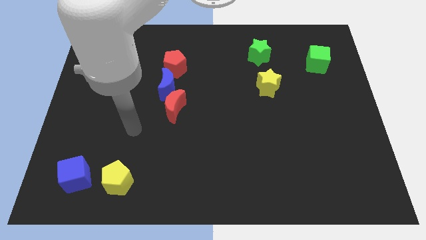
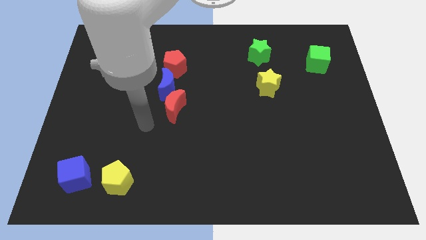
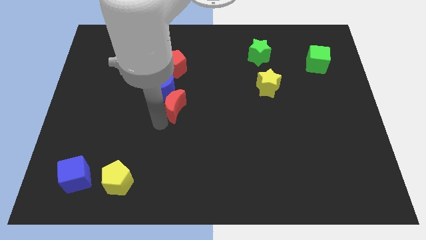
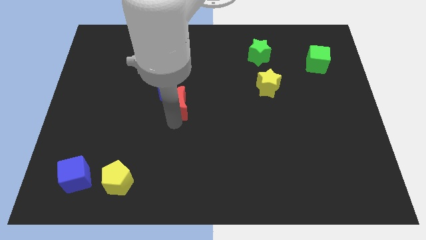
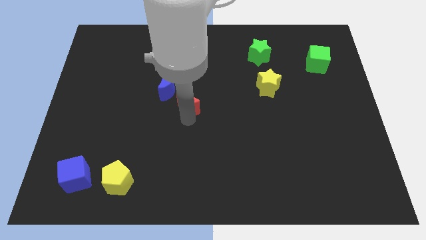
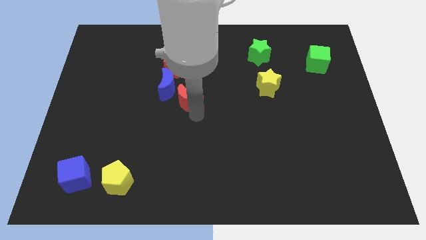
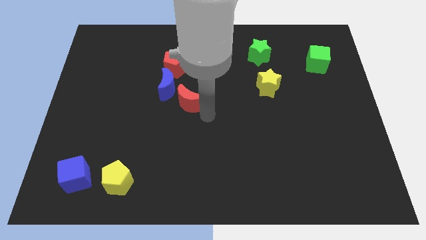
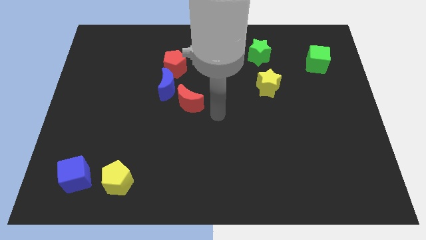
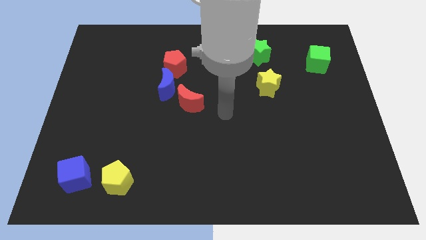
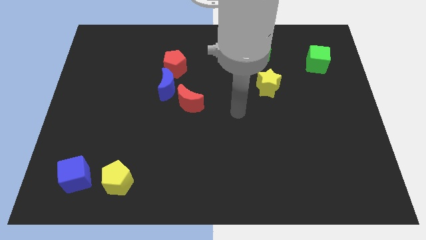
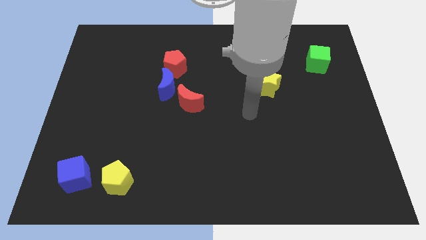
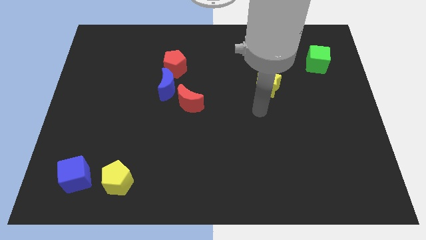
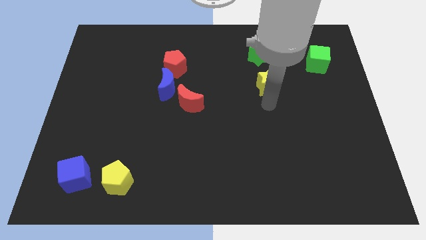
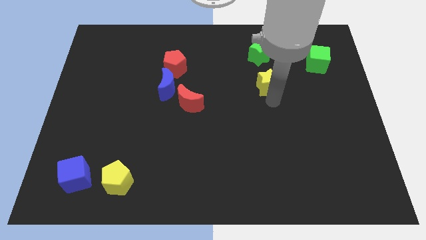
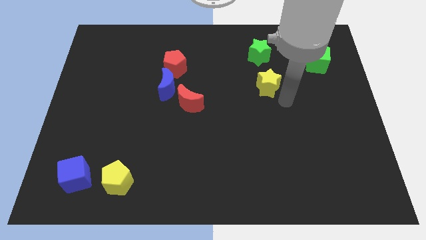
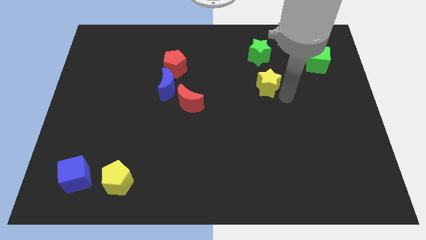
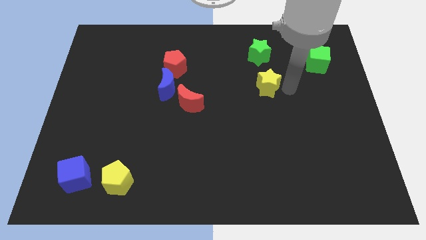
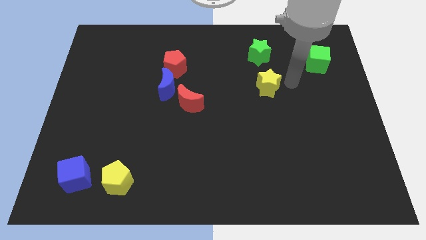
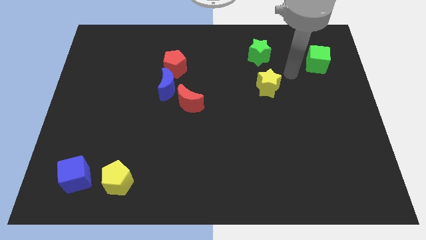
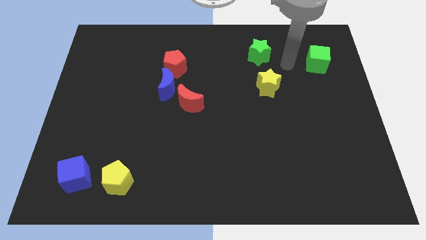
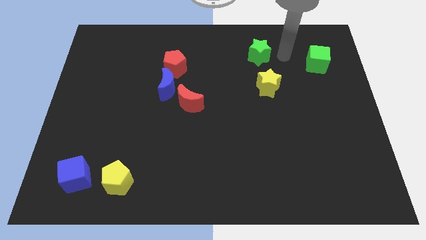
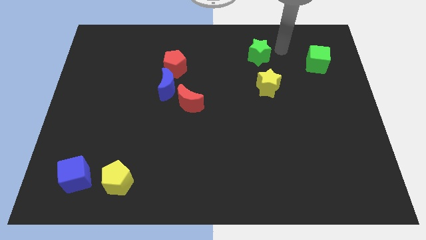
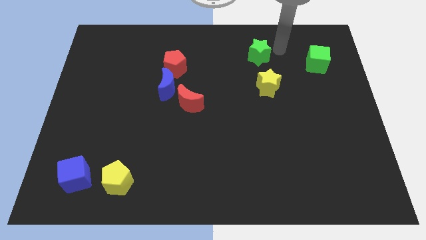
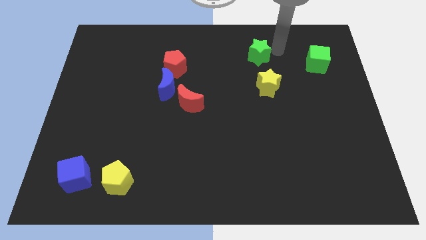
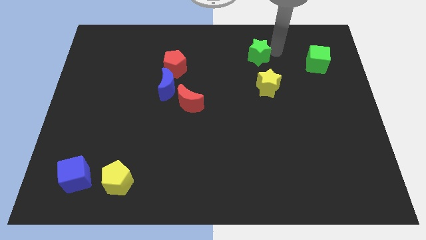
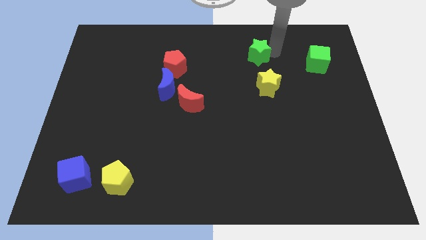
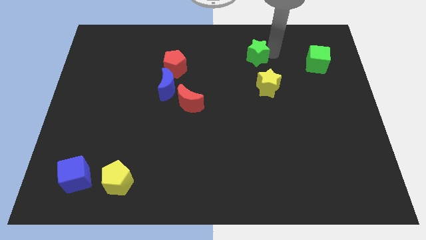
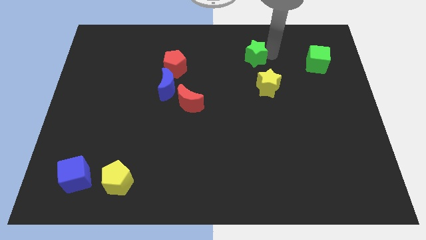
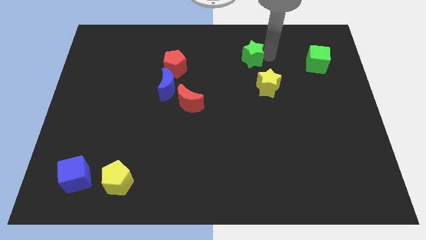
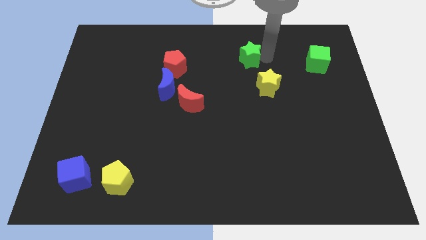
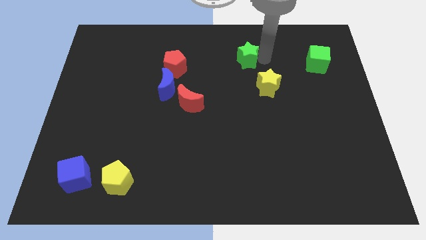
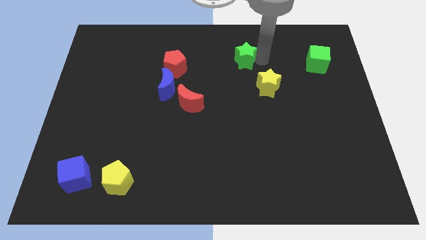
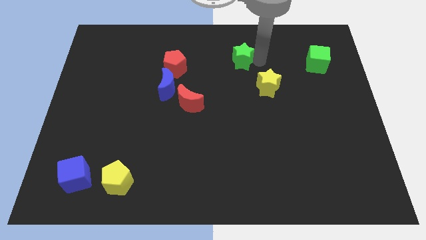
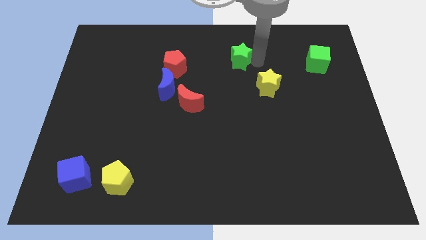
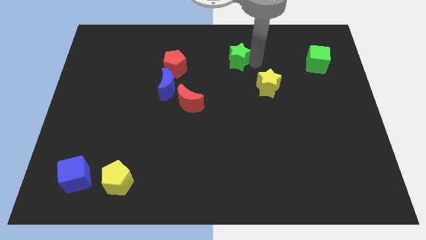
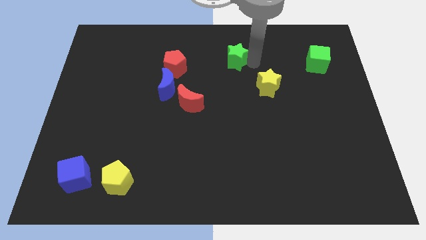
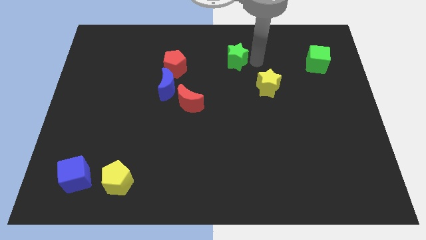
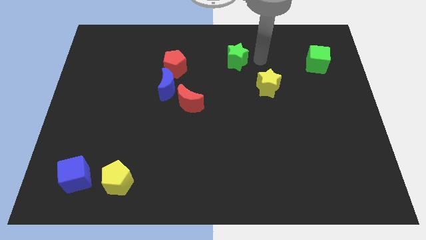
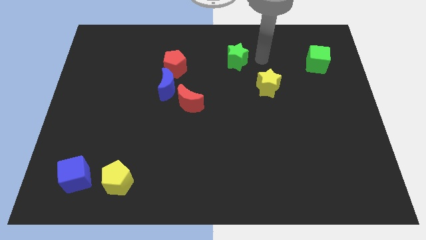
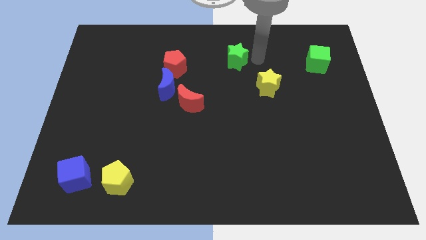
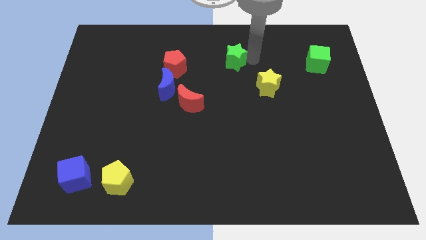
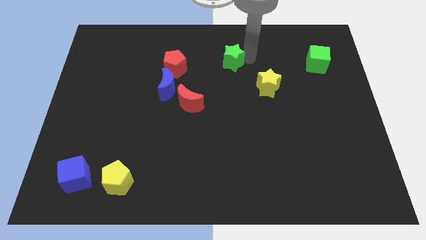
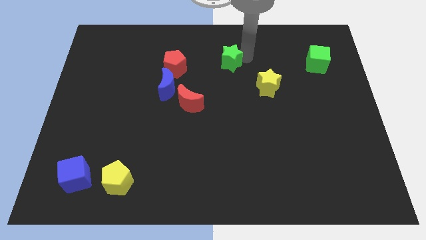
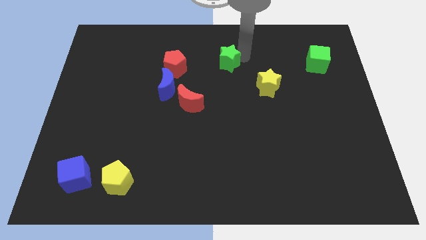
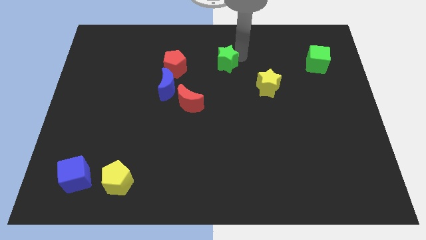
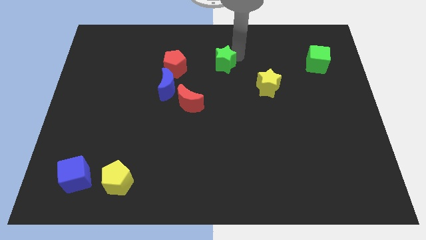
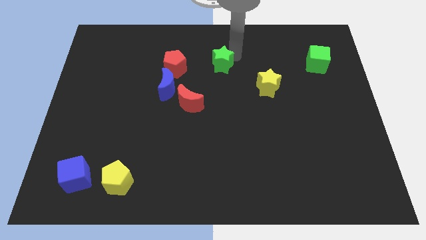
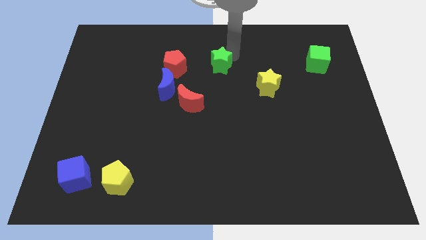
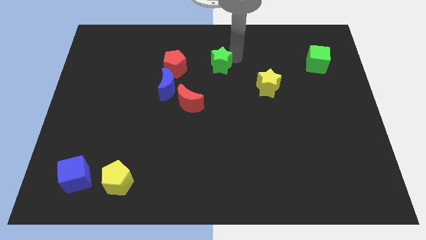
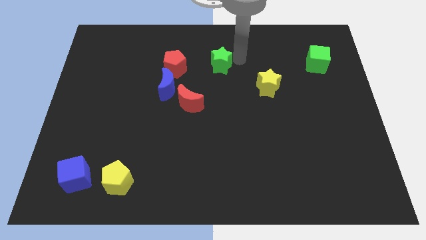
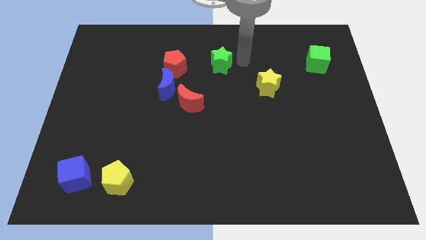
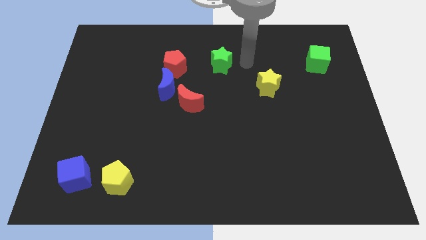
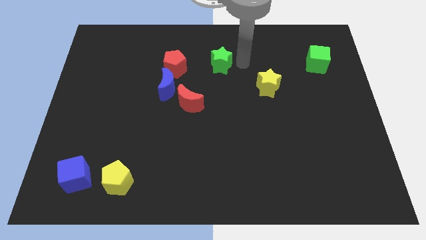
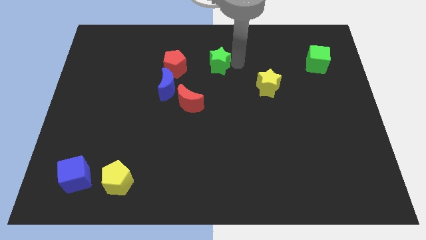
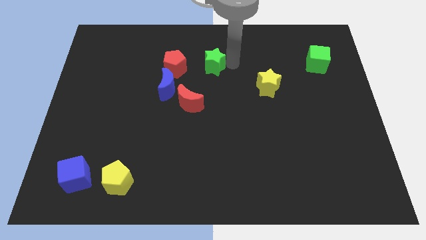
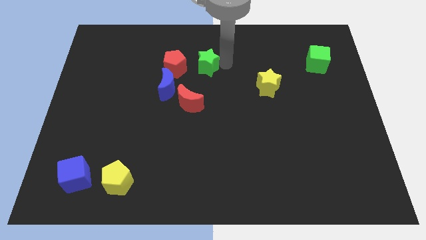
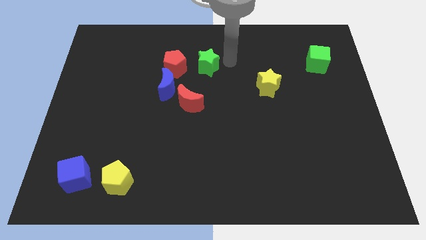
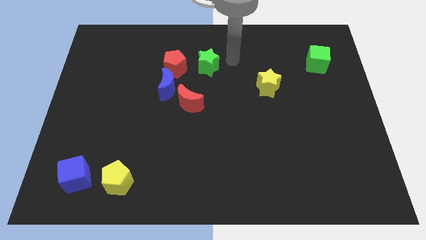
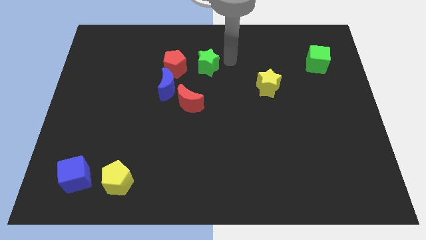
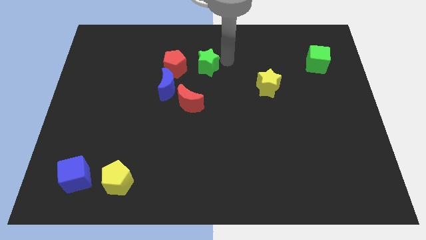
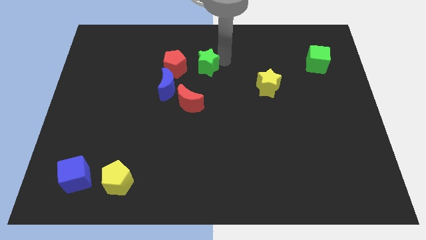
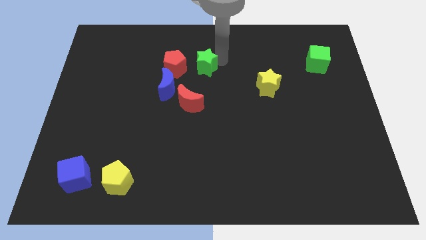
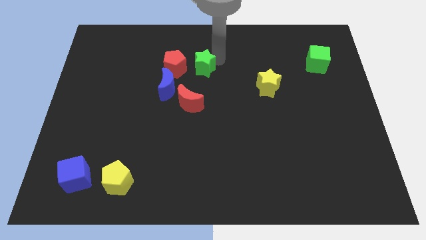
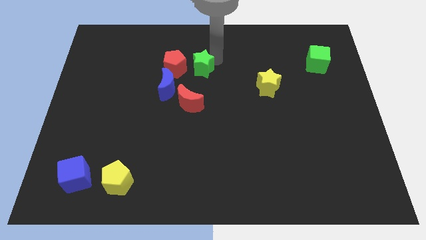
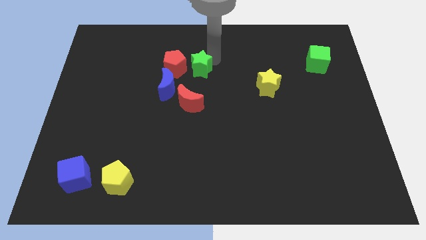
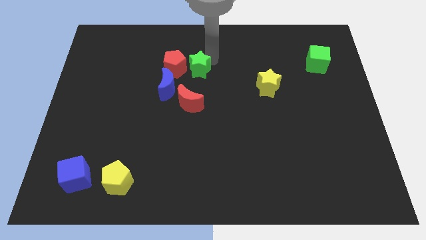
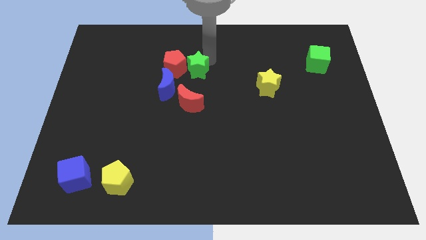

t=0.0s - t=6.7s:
put the green star close to the red pentagon
